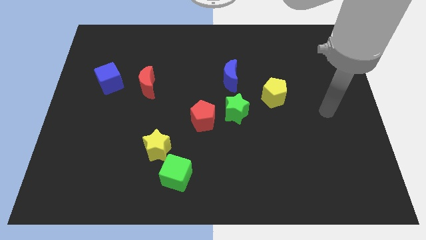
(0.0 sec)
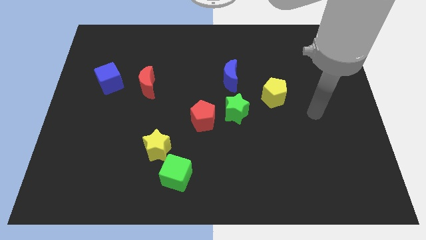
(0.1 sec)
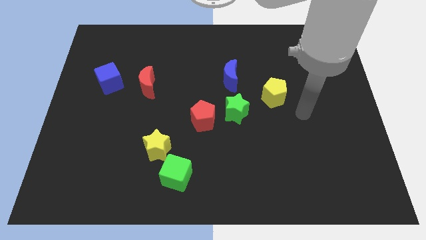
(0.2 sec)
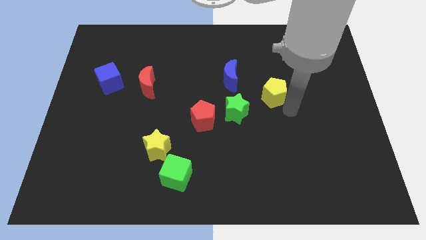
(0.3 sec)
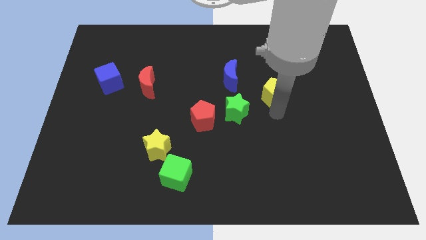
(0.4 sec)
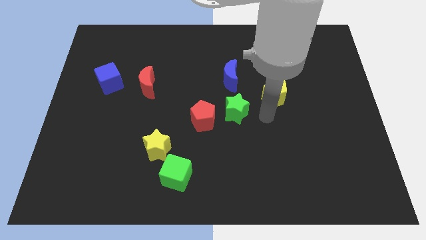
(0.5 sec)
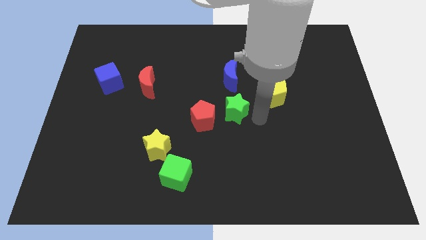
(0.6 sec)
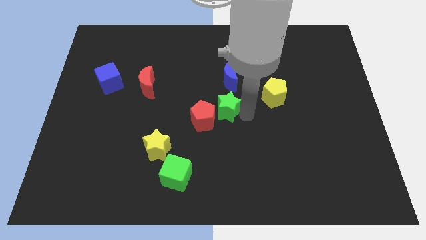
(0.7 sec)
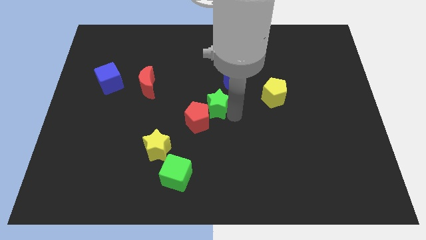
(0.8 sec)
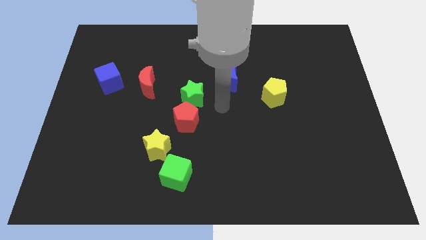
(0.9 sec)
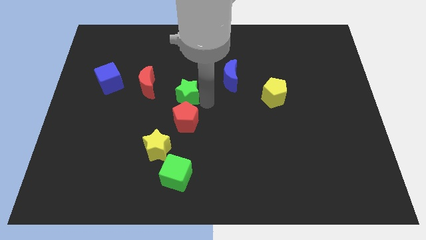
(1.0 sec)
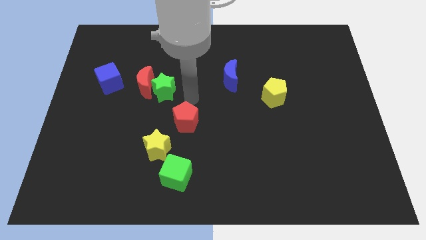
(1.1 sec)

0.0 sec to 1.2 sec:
pull the red pentagon apart from the green star

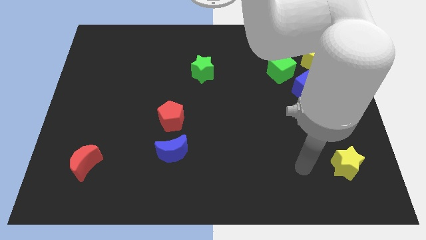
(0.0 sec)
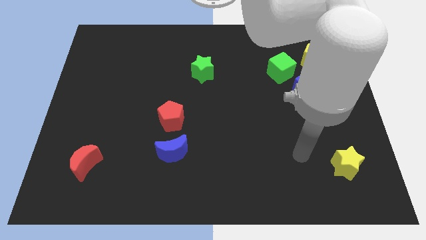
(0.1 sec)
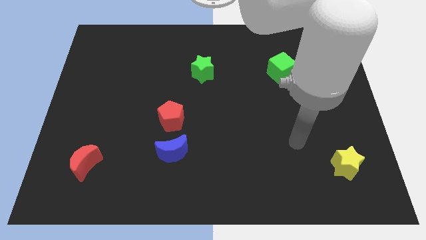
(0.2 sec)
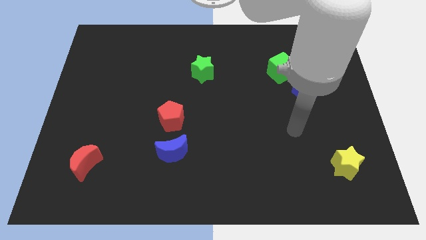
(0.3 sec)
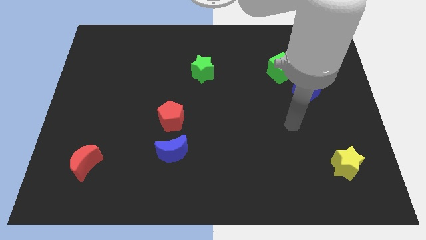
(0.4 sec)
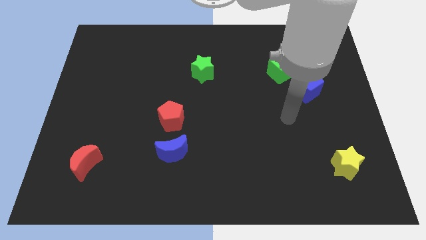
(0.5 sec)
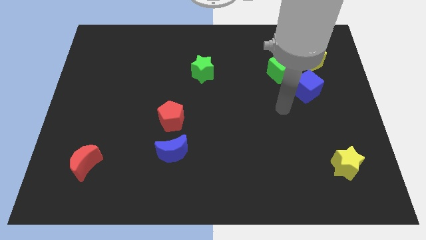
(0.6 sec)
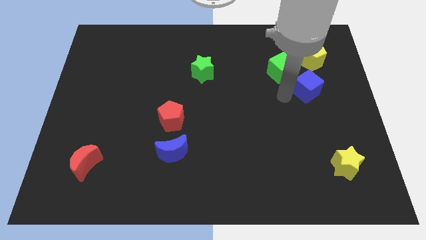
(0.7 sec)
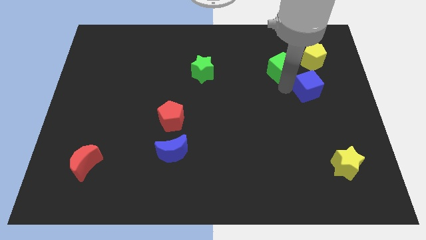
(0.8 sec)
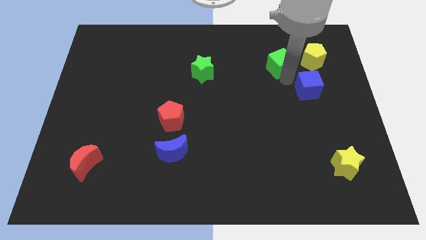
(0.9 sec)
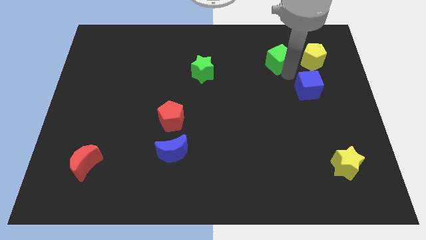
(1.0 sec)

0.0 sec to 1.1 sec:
pull the blue cube apart from the green cube

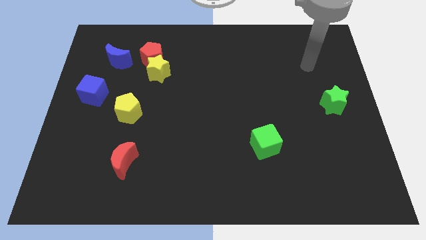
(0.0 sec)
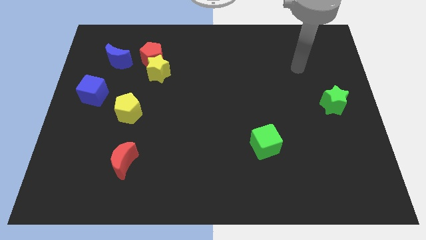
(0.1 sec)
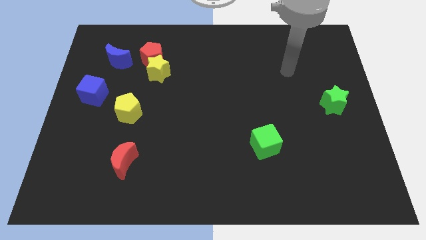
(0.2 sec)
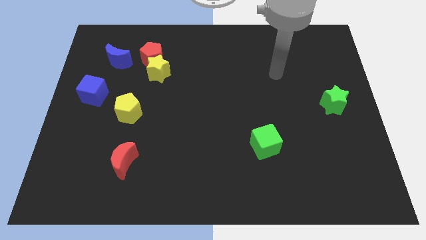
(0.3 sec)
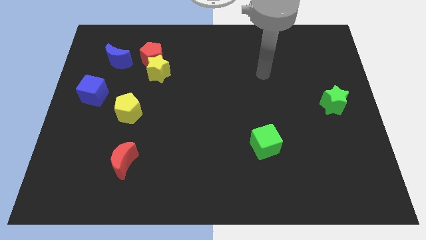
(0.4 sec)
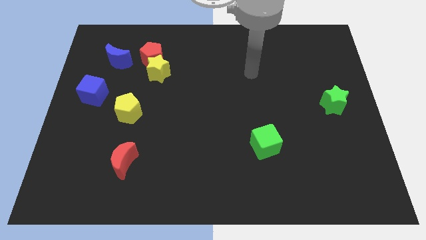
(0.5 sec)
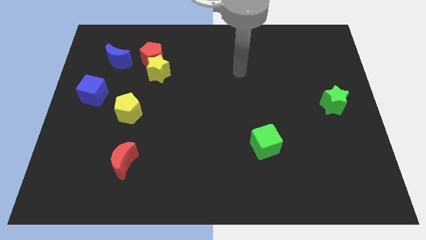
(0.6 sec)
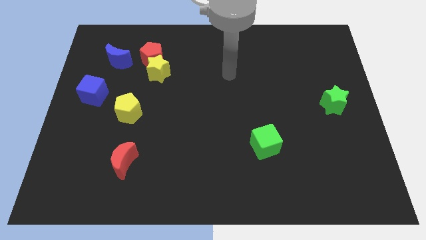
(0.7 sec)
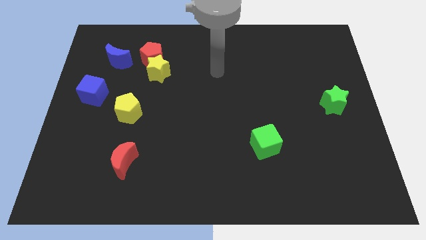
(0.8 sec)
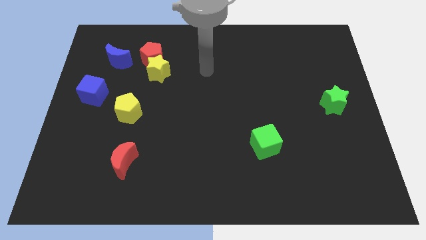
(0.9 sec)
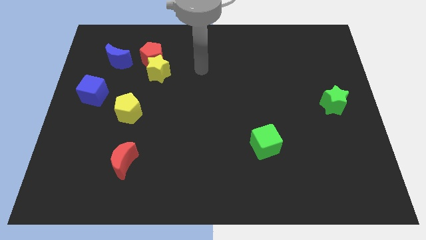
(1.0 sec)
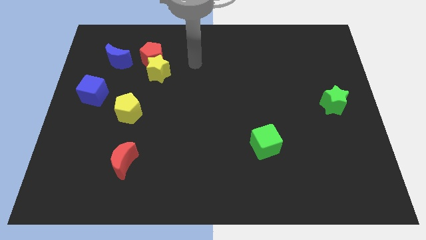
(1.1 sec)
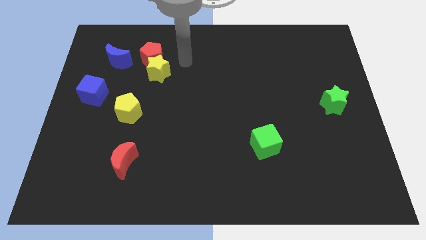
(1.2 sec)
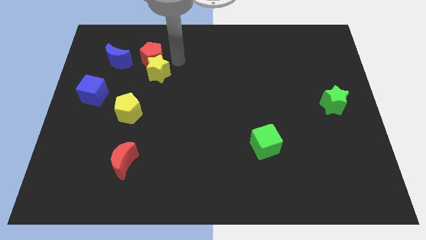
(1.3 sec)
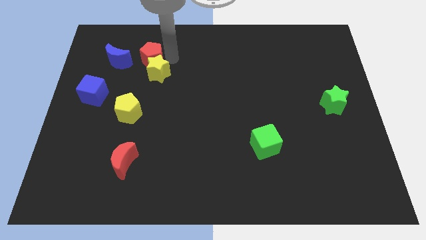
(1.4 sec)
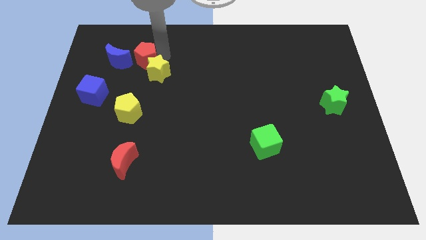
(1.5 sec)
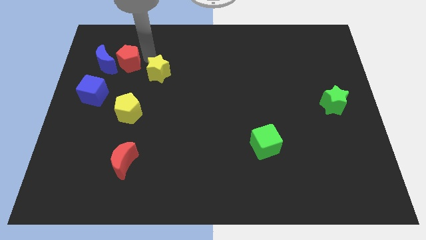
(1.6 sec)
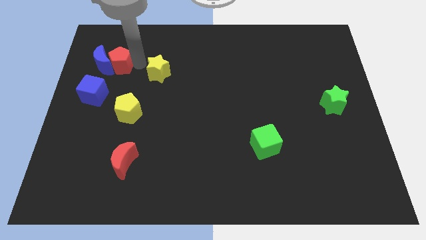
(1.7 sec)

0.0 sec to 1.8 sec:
pull the yellow star apart from the red pentagon

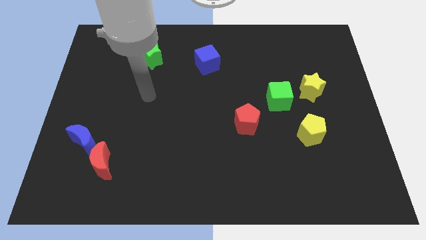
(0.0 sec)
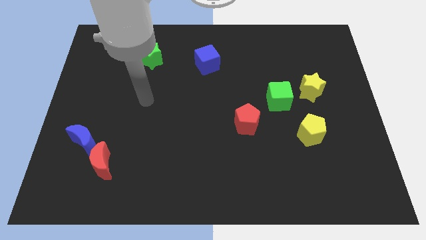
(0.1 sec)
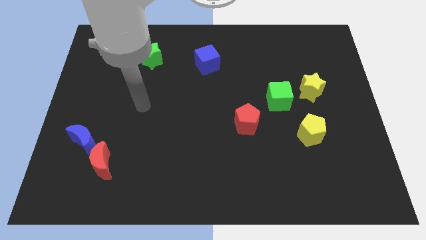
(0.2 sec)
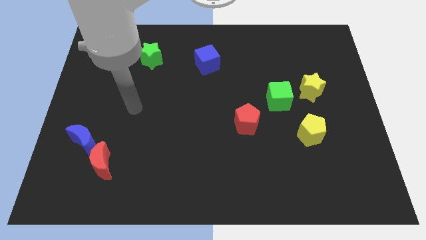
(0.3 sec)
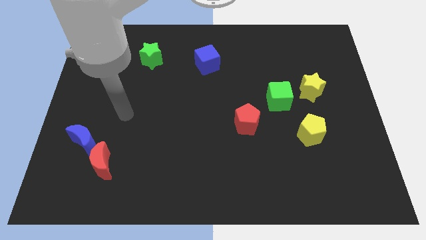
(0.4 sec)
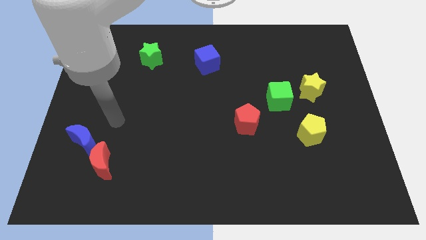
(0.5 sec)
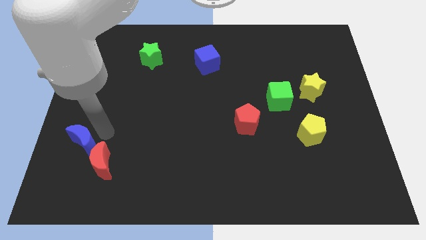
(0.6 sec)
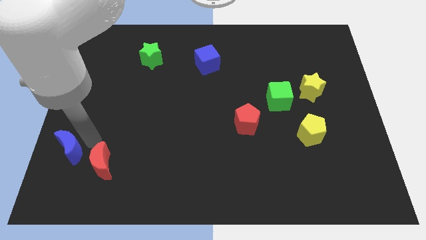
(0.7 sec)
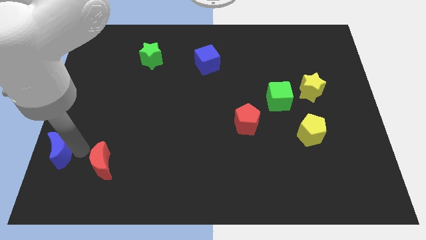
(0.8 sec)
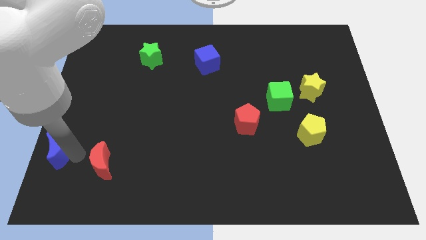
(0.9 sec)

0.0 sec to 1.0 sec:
separate the red moon from the blue moon

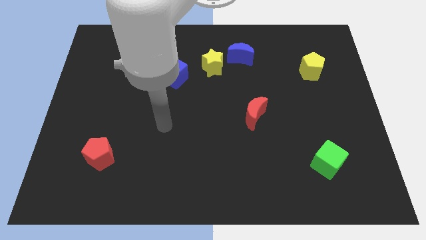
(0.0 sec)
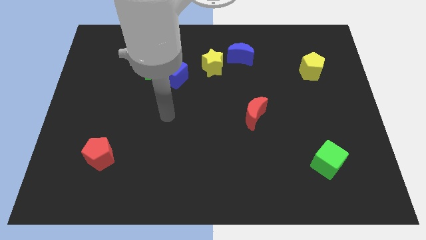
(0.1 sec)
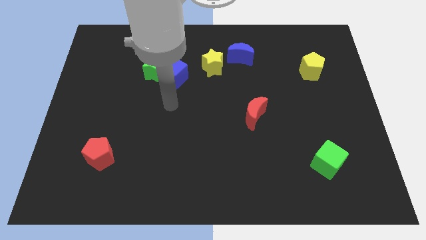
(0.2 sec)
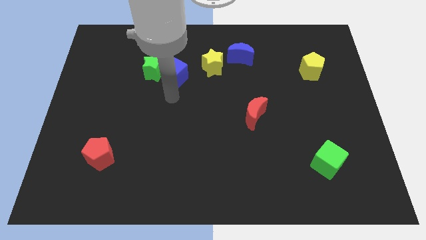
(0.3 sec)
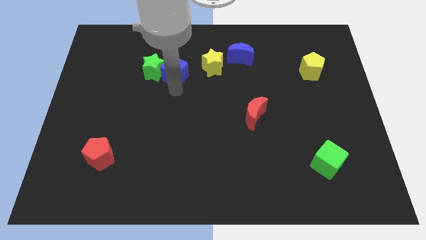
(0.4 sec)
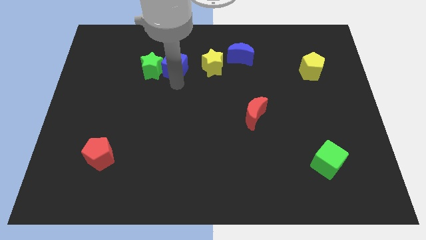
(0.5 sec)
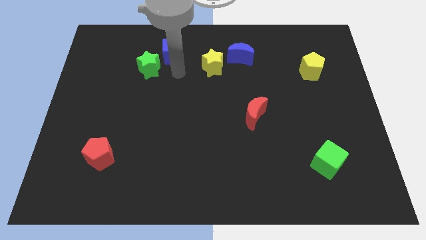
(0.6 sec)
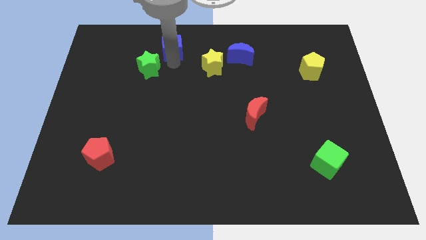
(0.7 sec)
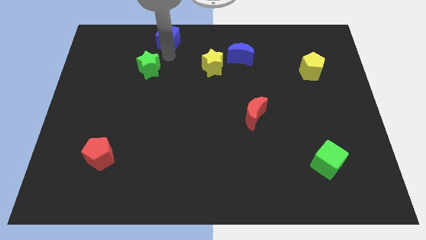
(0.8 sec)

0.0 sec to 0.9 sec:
separate the green star from the blue cube

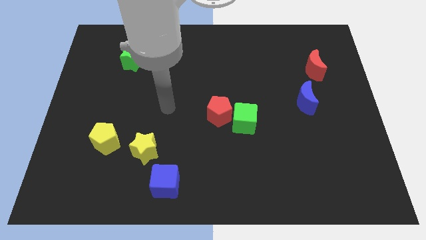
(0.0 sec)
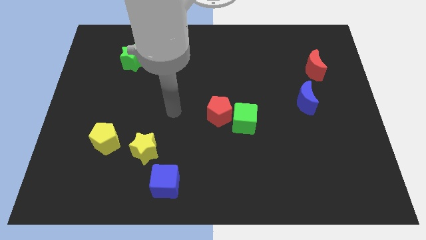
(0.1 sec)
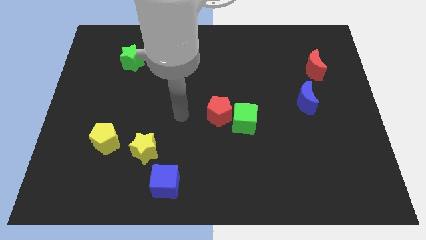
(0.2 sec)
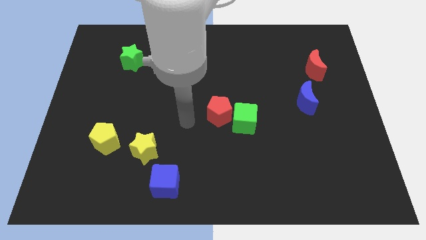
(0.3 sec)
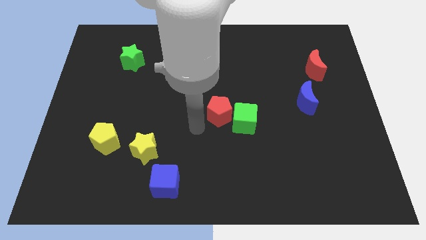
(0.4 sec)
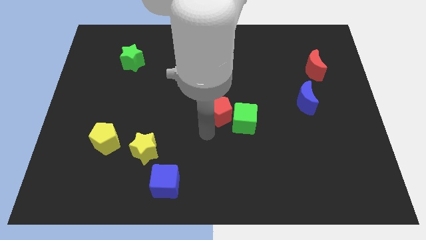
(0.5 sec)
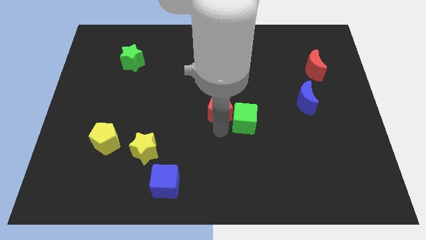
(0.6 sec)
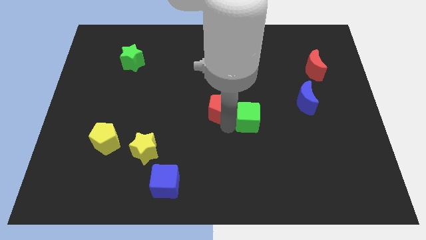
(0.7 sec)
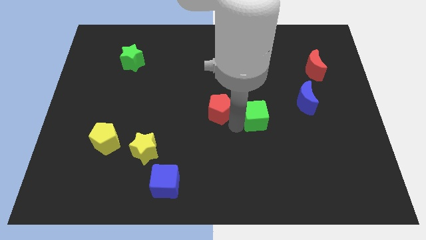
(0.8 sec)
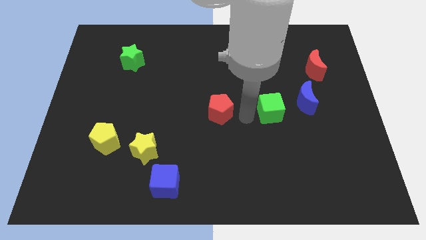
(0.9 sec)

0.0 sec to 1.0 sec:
move the red pentagon away from the green cube

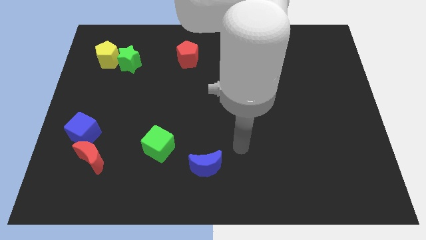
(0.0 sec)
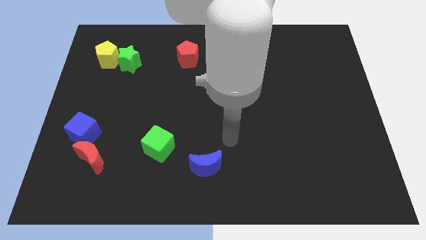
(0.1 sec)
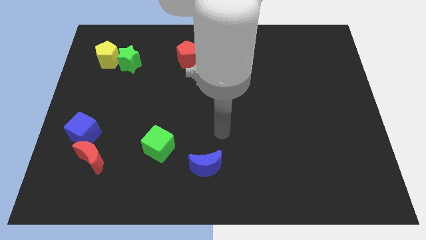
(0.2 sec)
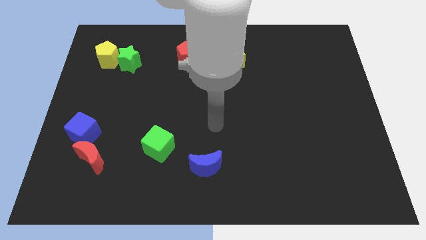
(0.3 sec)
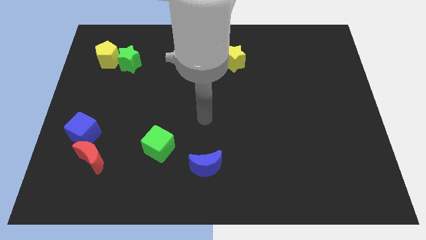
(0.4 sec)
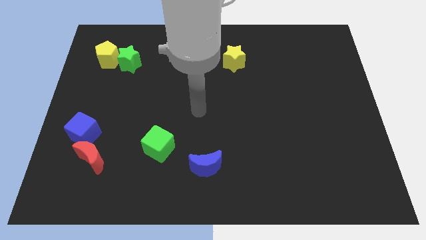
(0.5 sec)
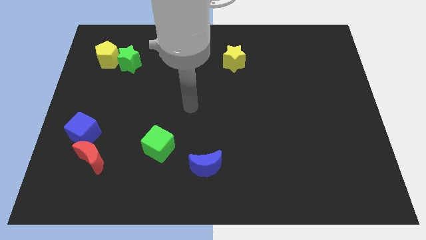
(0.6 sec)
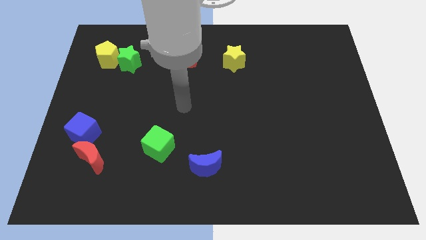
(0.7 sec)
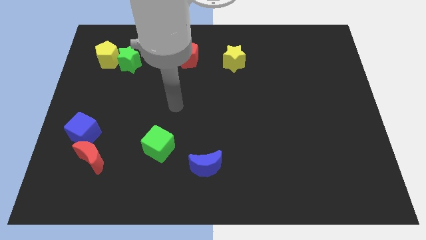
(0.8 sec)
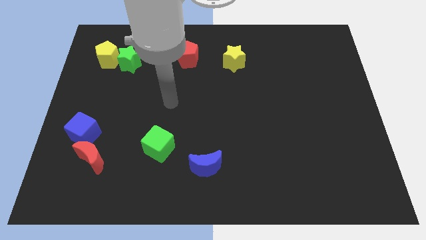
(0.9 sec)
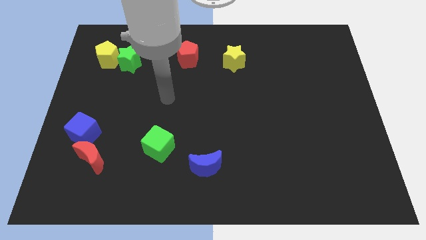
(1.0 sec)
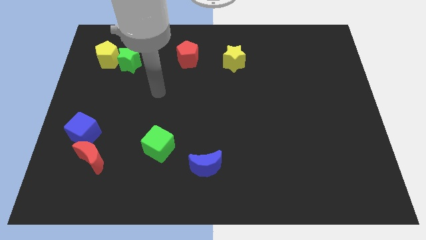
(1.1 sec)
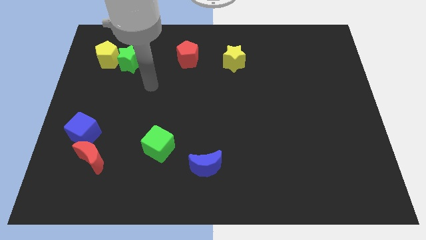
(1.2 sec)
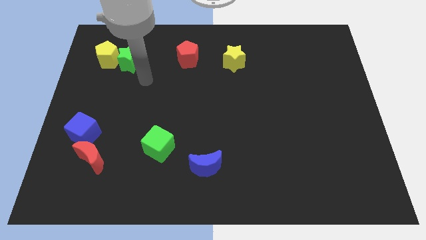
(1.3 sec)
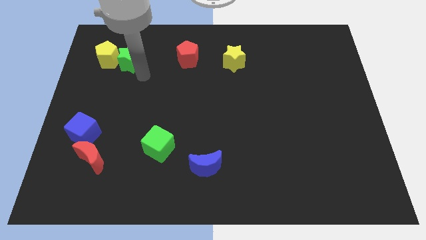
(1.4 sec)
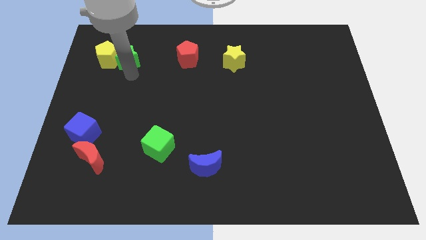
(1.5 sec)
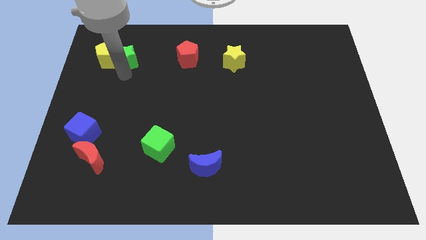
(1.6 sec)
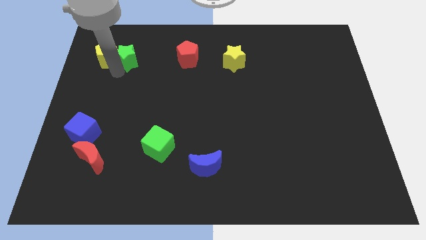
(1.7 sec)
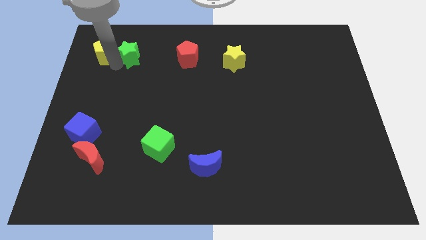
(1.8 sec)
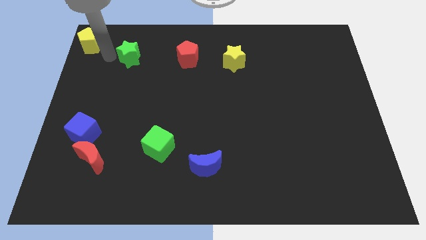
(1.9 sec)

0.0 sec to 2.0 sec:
separate the green star from the yellow pentagon

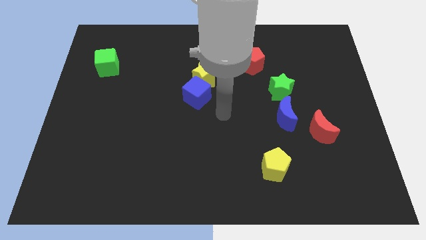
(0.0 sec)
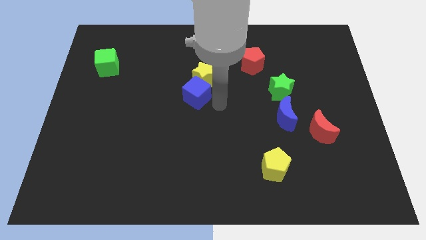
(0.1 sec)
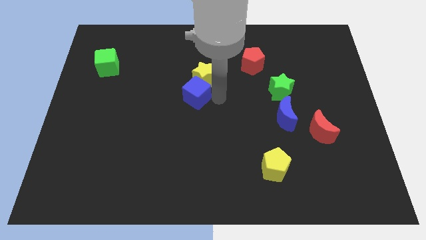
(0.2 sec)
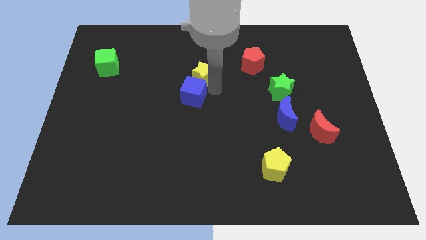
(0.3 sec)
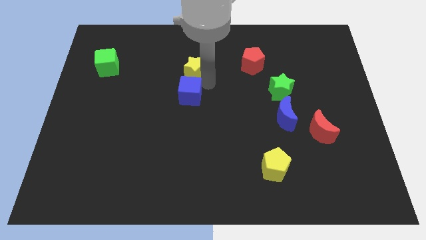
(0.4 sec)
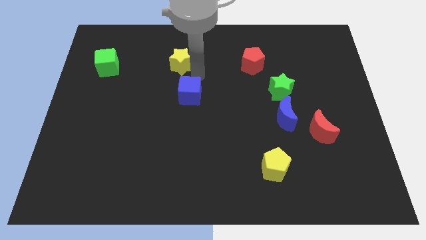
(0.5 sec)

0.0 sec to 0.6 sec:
separate the blue cube from the yellow star
